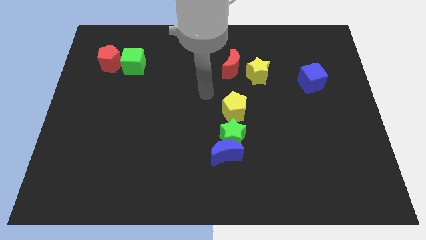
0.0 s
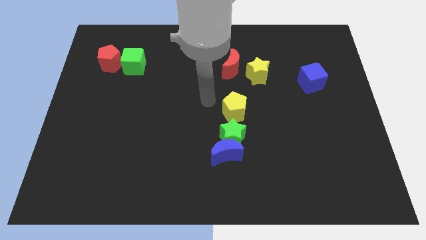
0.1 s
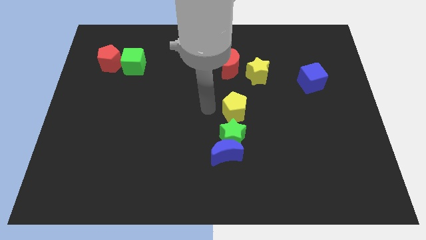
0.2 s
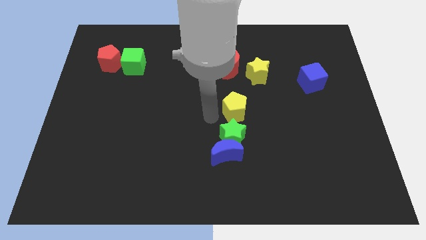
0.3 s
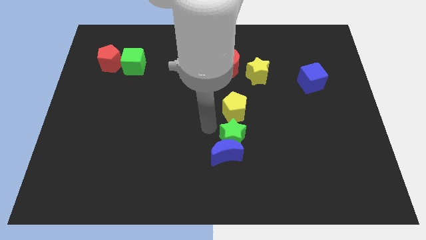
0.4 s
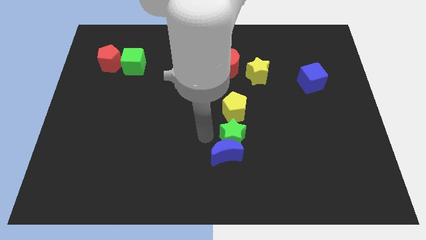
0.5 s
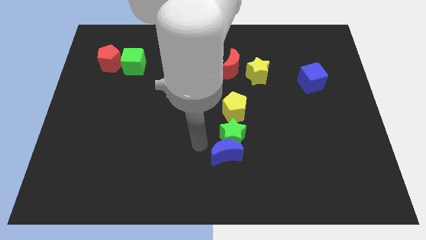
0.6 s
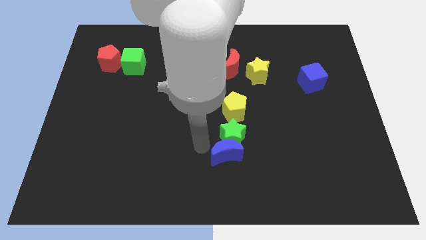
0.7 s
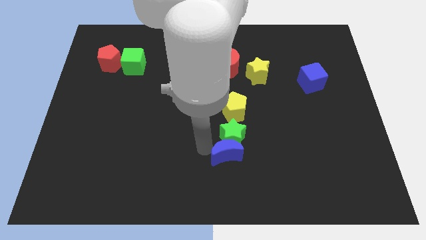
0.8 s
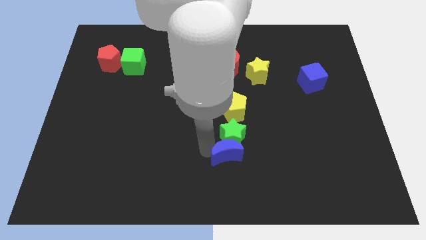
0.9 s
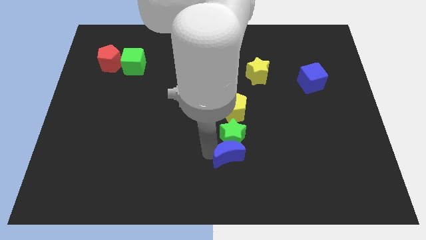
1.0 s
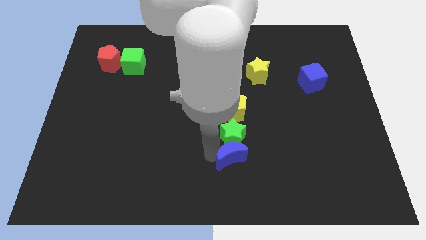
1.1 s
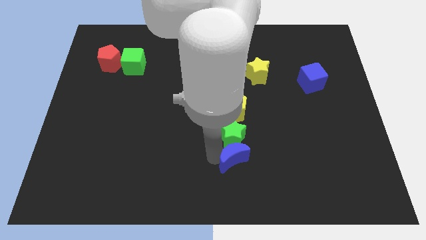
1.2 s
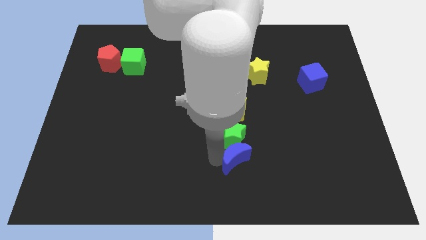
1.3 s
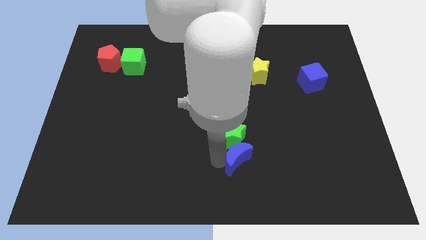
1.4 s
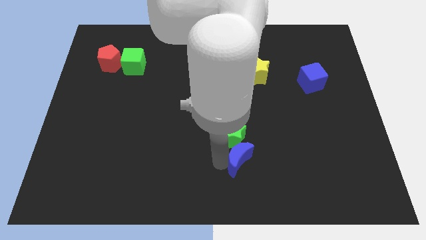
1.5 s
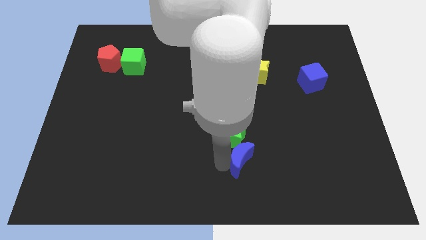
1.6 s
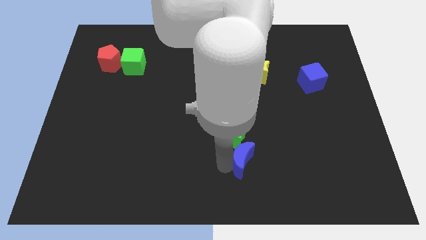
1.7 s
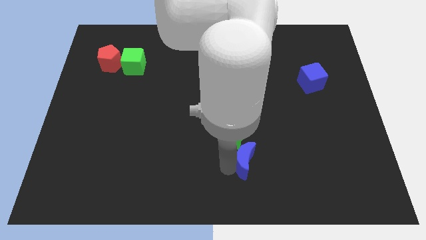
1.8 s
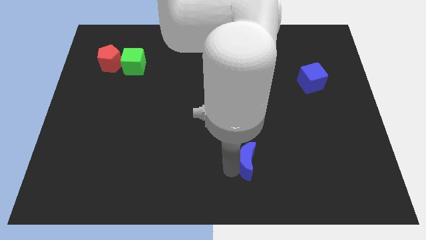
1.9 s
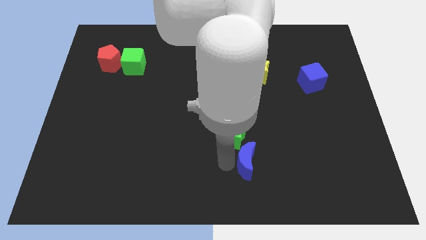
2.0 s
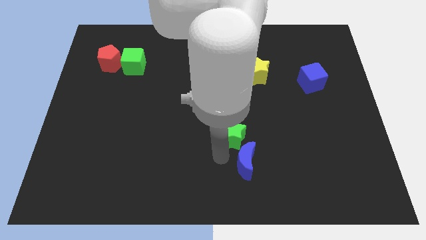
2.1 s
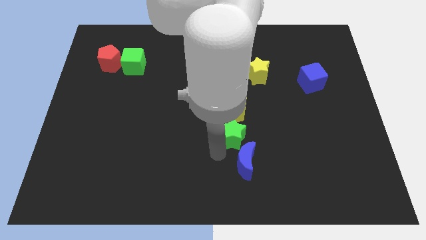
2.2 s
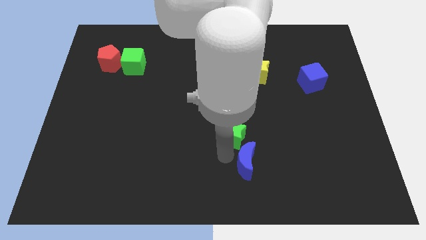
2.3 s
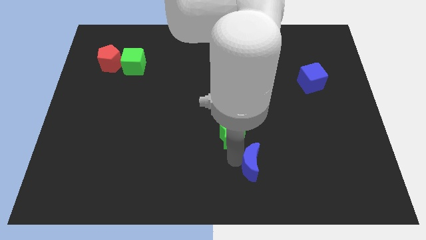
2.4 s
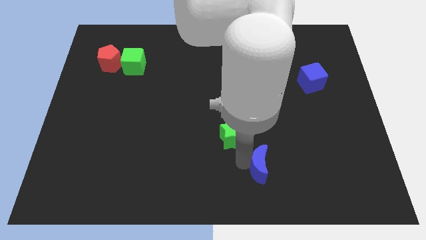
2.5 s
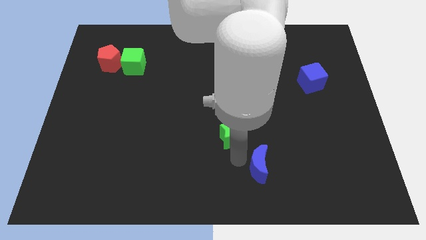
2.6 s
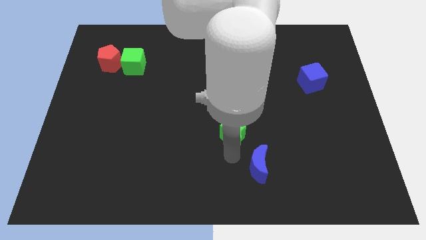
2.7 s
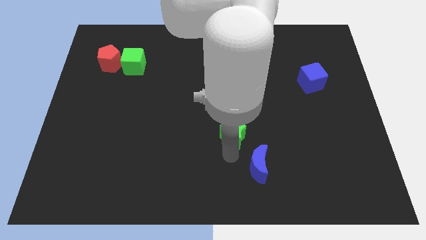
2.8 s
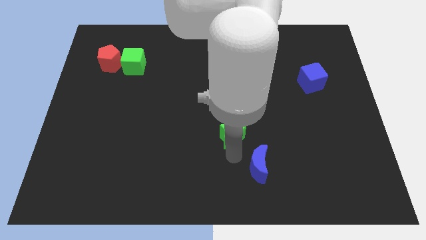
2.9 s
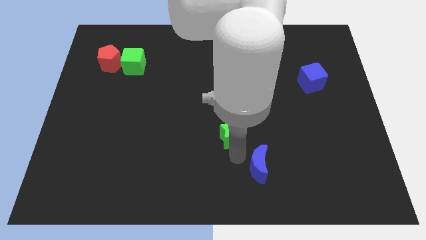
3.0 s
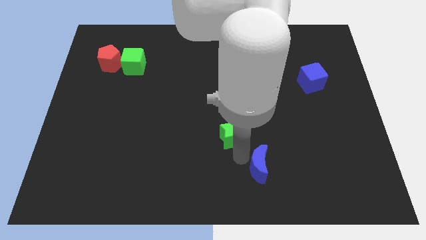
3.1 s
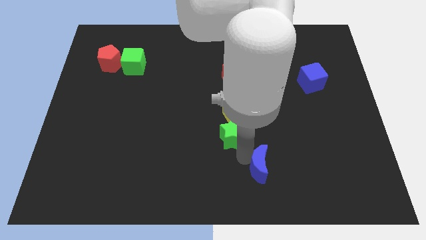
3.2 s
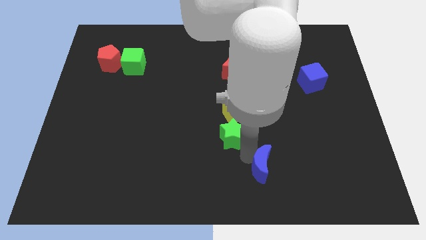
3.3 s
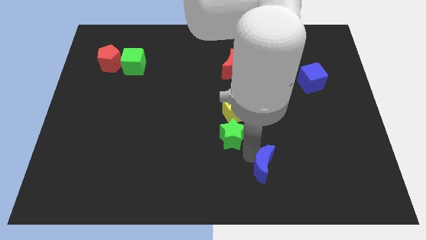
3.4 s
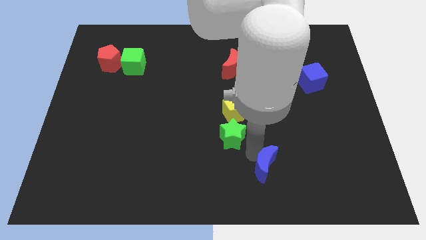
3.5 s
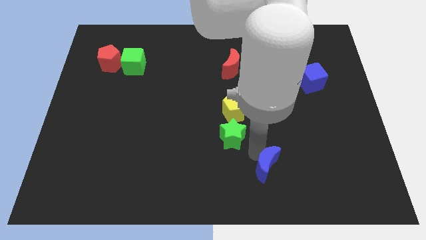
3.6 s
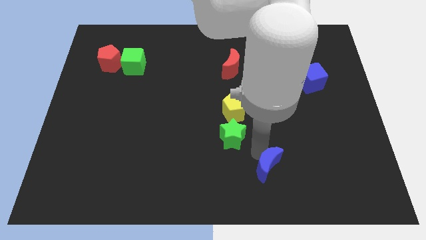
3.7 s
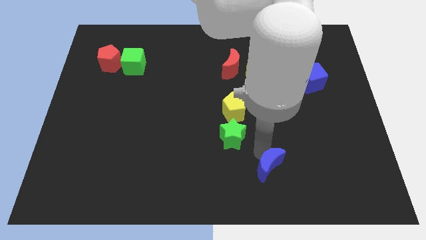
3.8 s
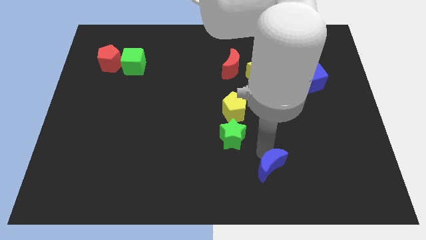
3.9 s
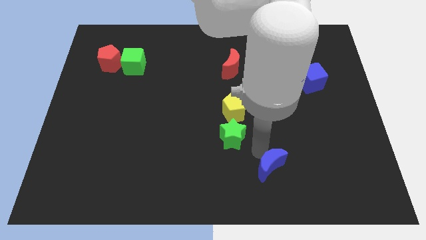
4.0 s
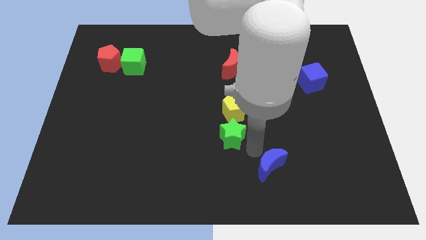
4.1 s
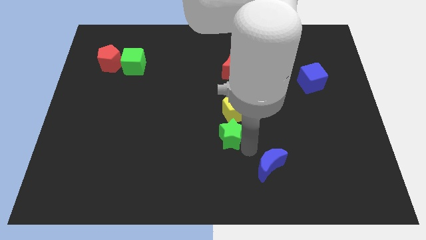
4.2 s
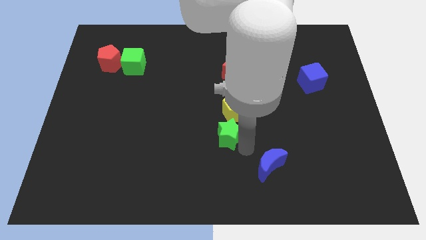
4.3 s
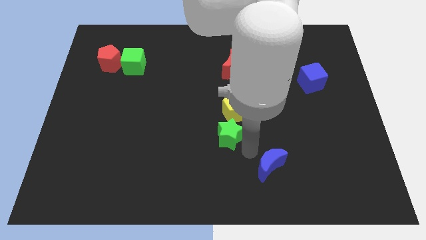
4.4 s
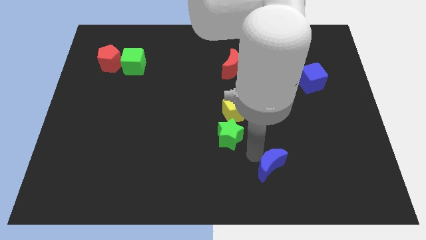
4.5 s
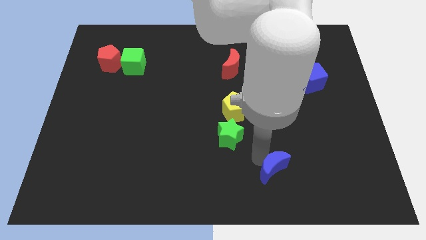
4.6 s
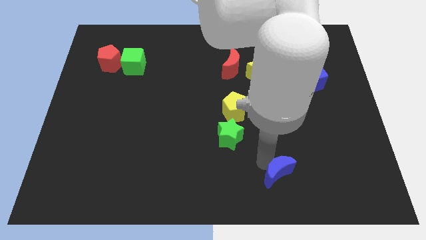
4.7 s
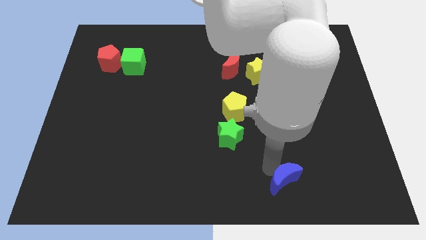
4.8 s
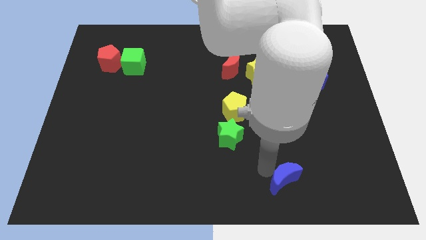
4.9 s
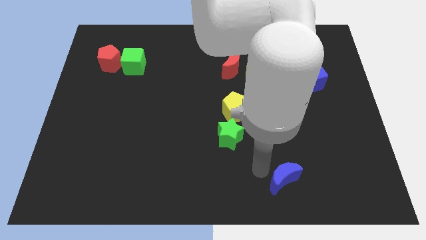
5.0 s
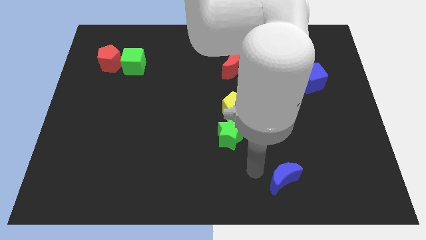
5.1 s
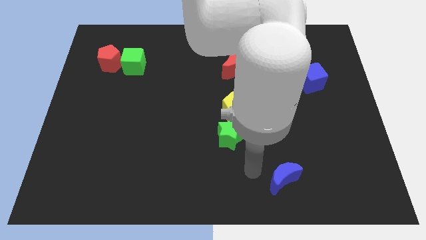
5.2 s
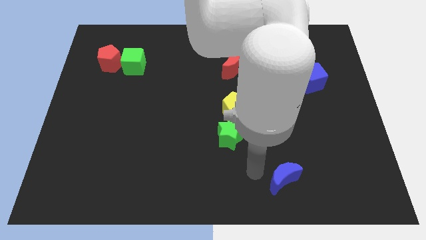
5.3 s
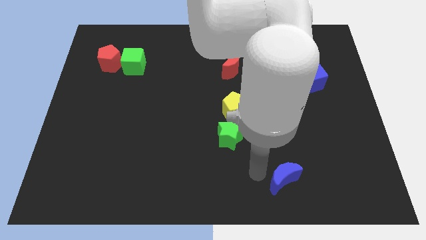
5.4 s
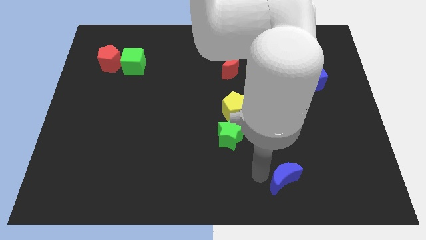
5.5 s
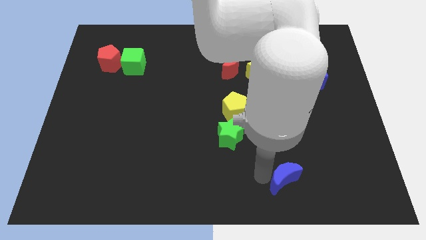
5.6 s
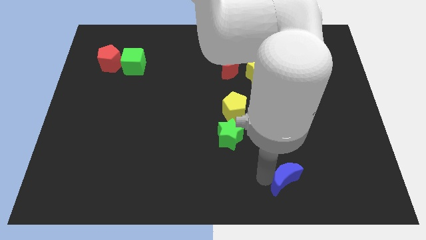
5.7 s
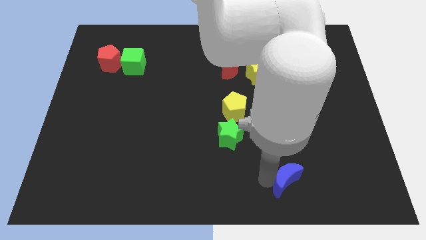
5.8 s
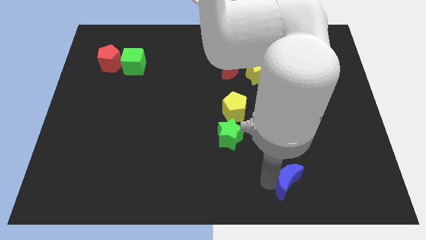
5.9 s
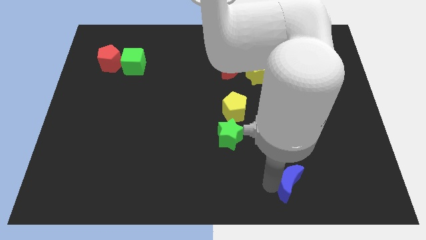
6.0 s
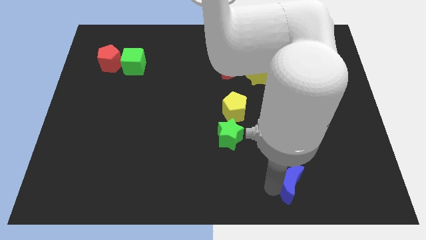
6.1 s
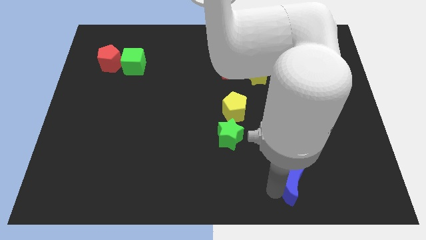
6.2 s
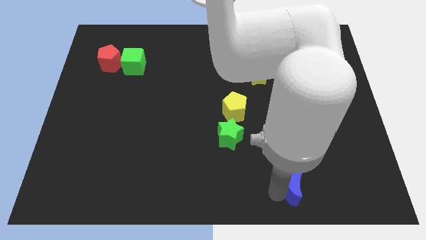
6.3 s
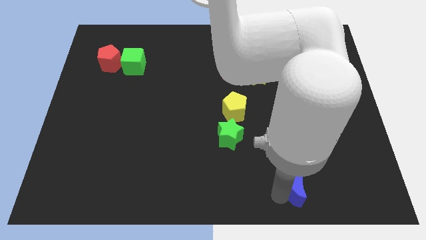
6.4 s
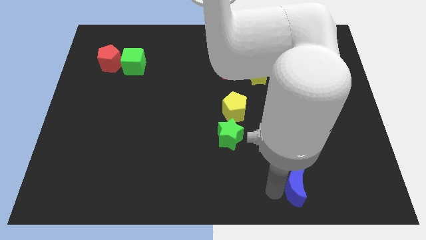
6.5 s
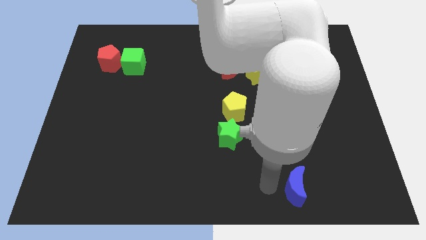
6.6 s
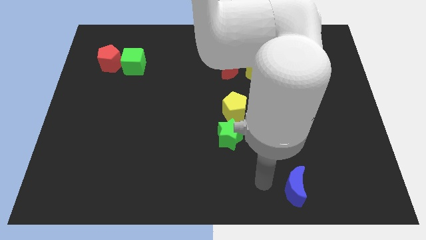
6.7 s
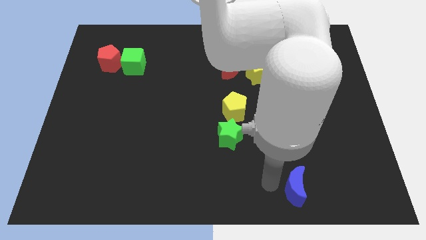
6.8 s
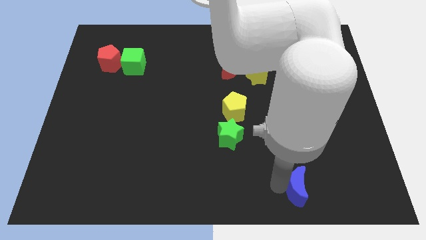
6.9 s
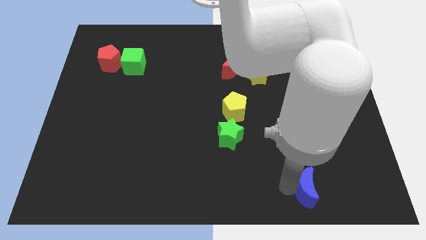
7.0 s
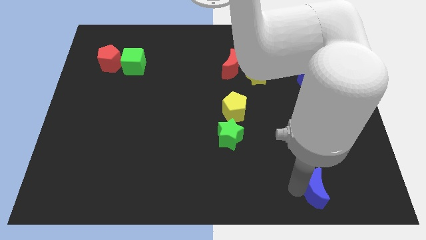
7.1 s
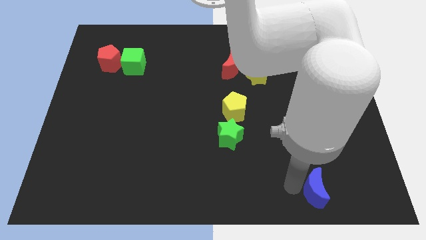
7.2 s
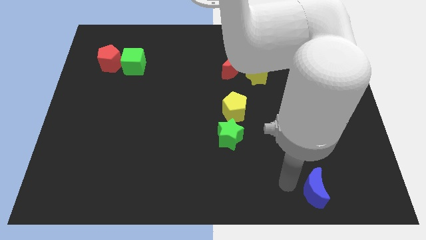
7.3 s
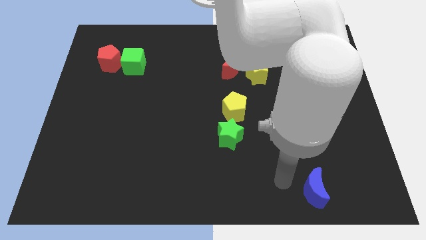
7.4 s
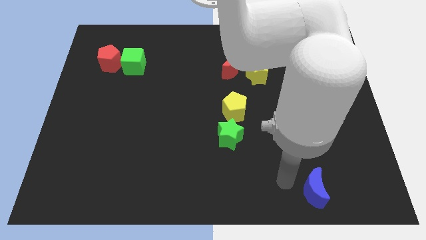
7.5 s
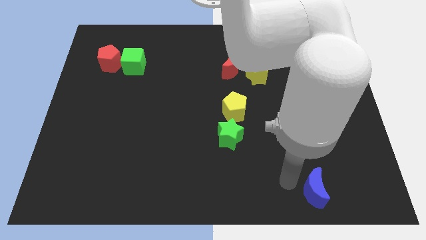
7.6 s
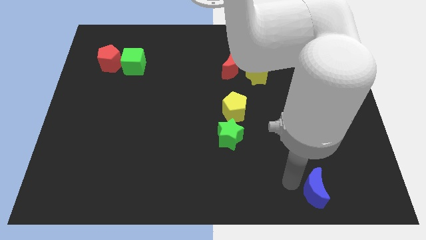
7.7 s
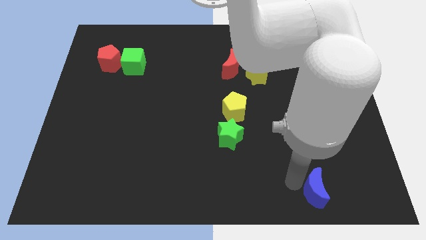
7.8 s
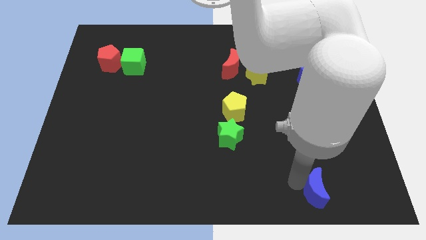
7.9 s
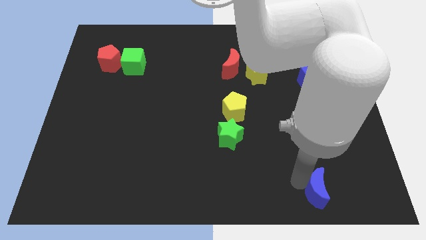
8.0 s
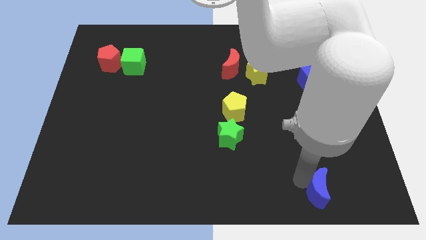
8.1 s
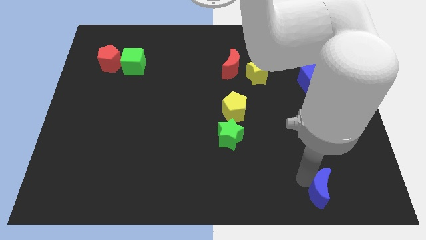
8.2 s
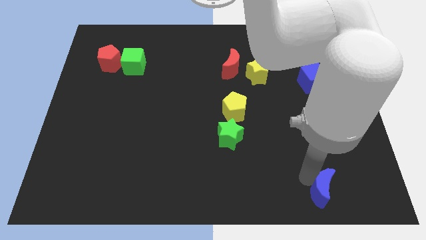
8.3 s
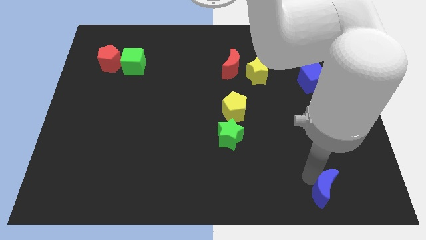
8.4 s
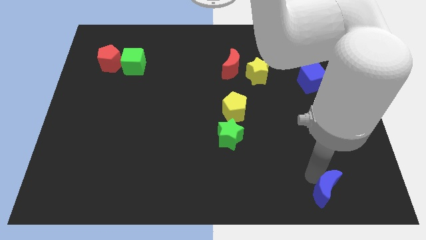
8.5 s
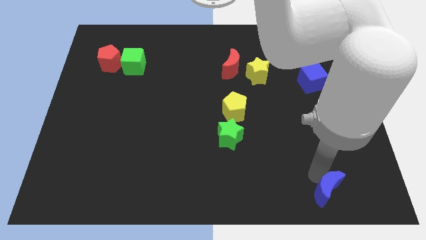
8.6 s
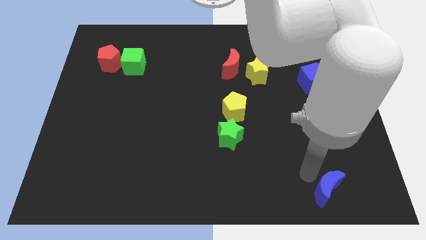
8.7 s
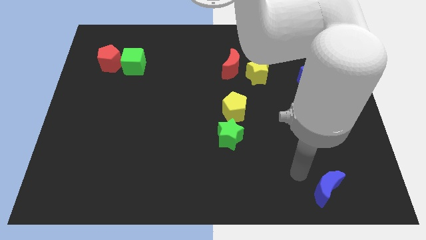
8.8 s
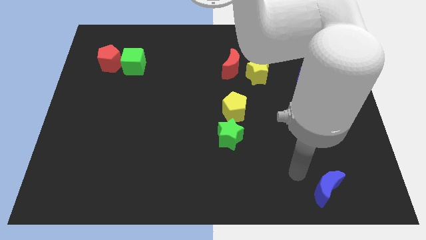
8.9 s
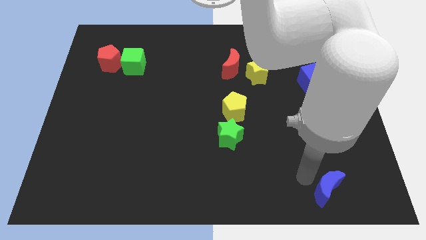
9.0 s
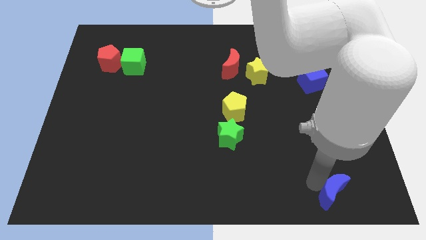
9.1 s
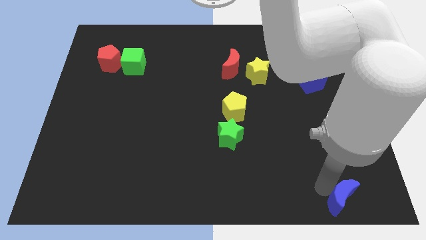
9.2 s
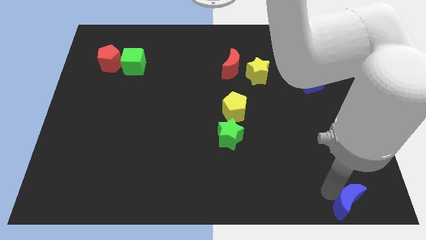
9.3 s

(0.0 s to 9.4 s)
push the blue moon to the lower right corner
